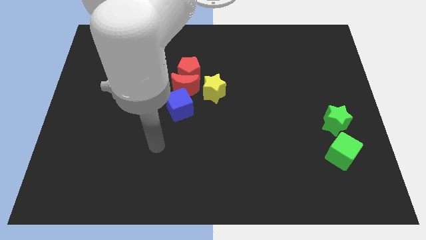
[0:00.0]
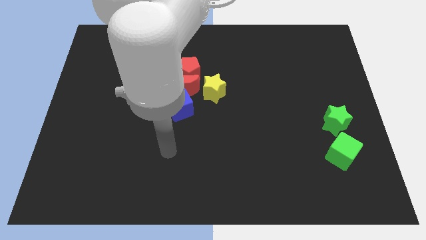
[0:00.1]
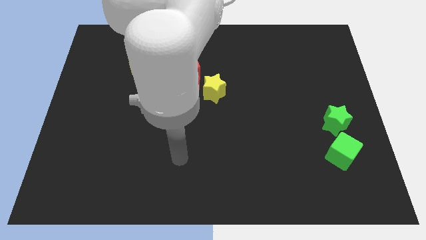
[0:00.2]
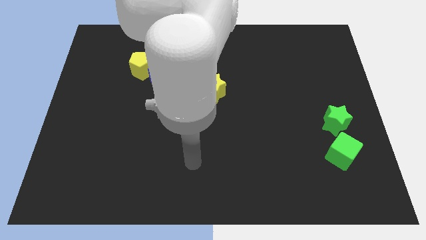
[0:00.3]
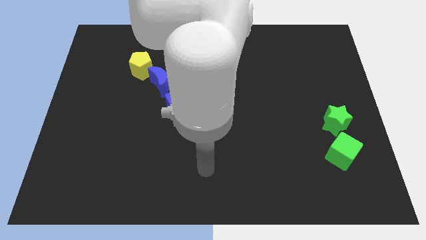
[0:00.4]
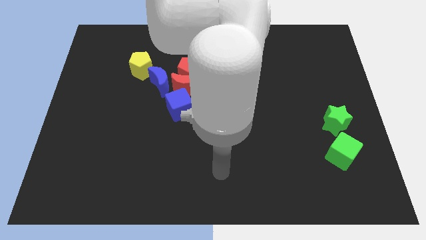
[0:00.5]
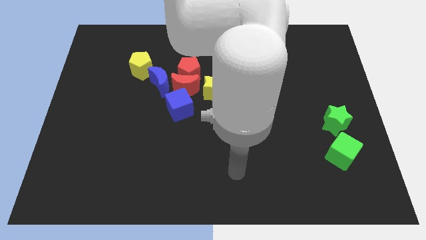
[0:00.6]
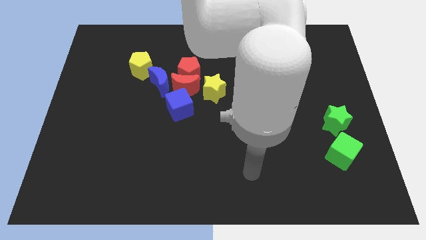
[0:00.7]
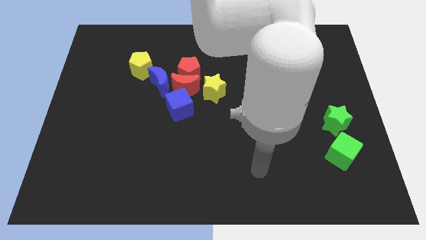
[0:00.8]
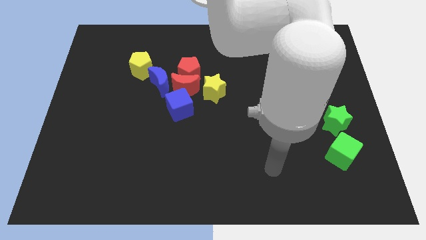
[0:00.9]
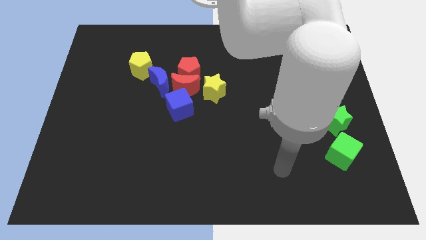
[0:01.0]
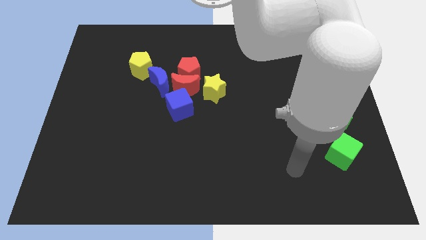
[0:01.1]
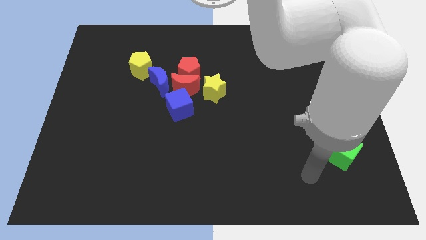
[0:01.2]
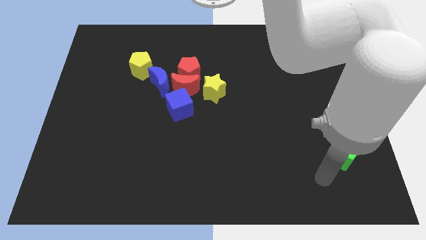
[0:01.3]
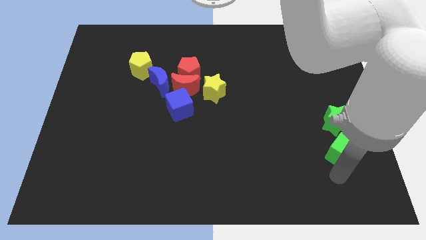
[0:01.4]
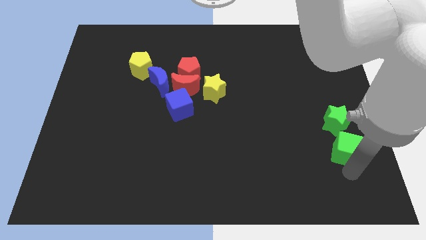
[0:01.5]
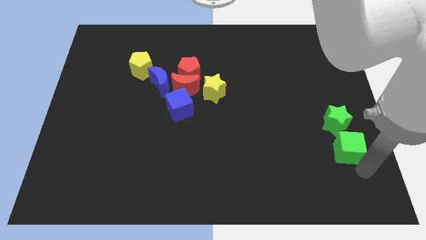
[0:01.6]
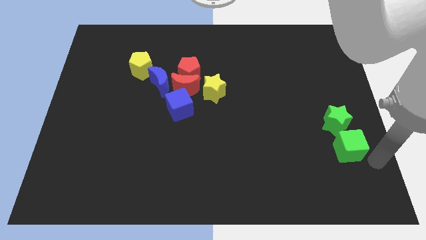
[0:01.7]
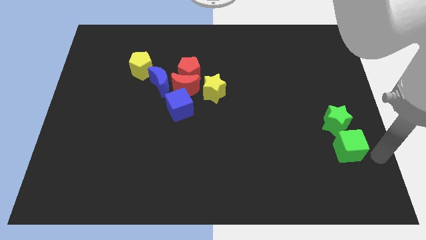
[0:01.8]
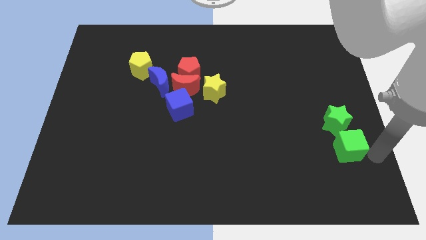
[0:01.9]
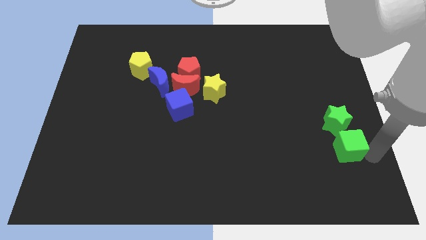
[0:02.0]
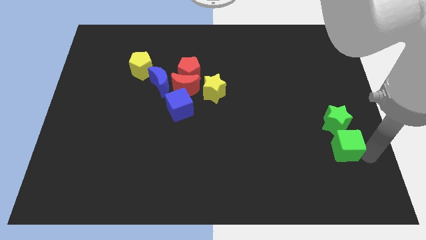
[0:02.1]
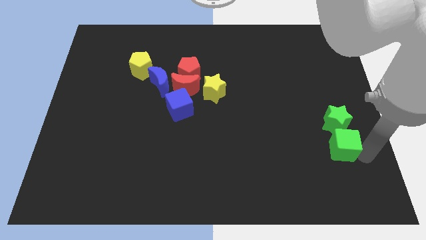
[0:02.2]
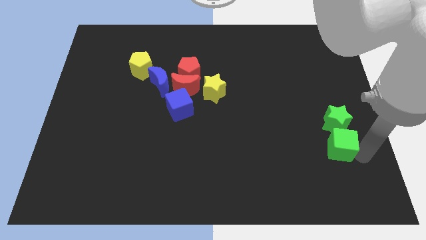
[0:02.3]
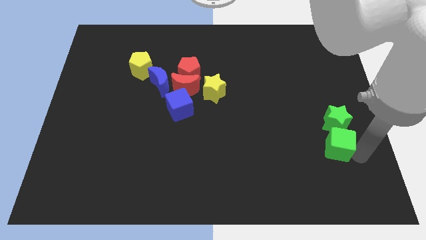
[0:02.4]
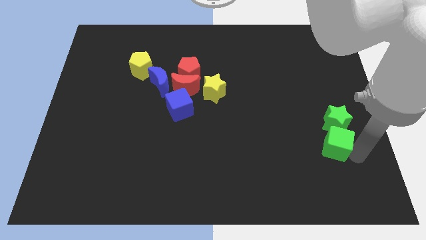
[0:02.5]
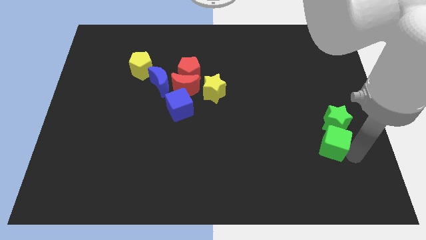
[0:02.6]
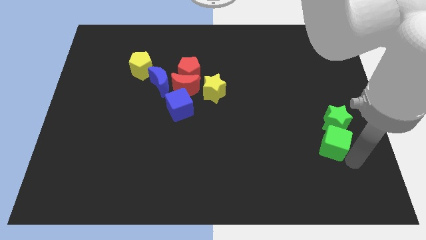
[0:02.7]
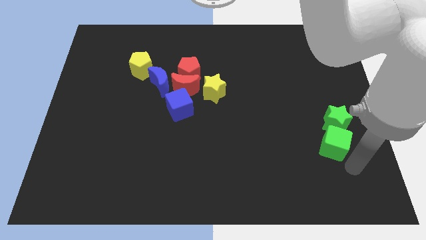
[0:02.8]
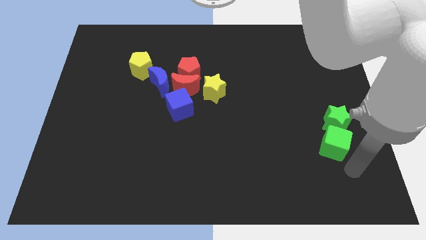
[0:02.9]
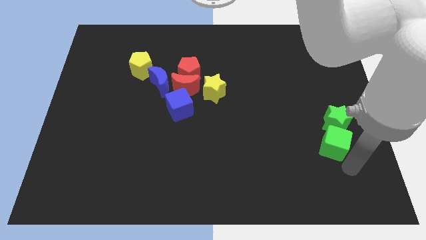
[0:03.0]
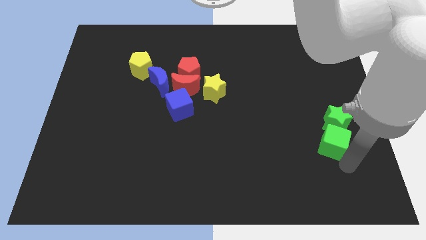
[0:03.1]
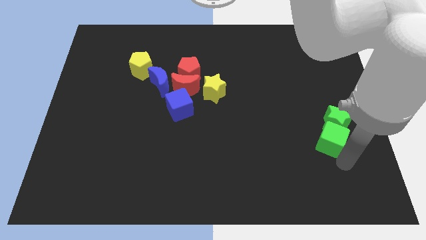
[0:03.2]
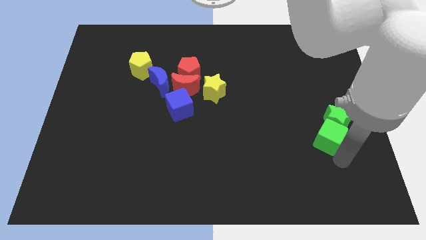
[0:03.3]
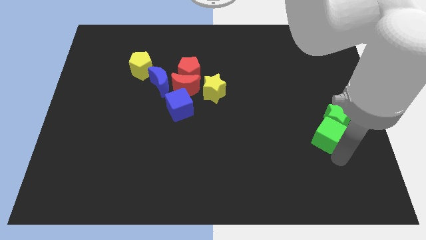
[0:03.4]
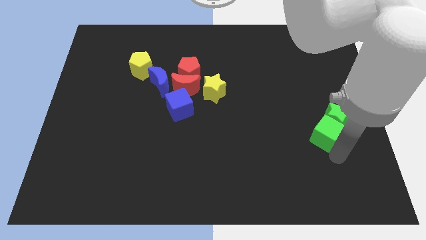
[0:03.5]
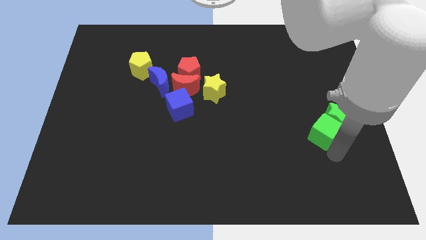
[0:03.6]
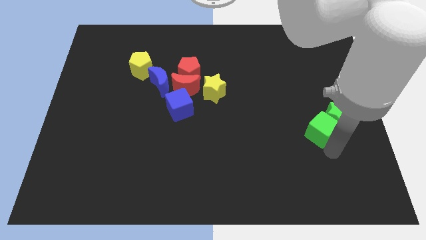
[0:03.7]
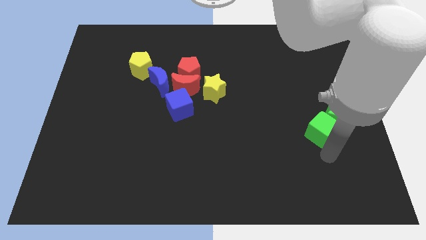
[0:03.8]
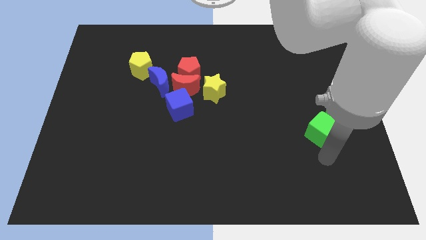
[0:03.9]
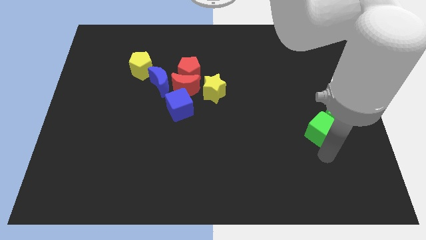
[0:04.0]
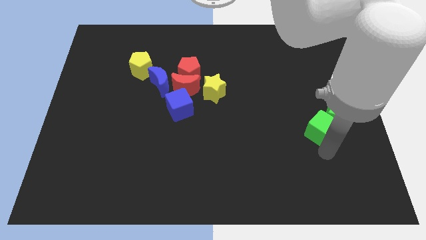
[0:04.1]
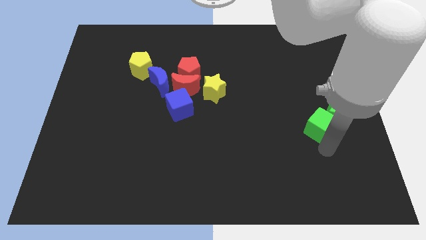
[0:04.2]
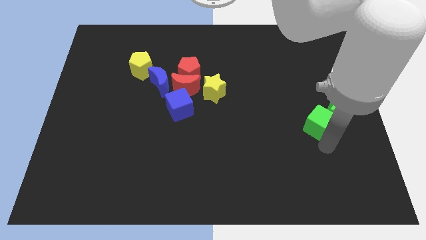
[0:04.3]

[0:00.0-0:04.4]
move the green cube up a little

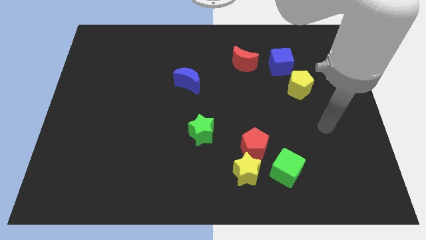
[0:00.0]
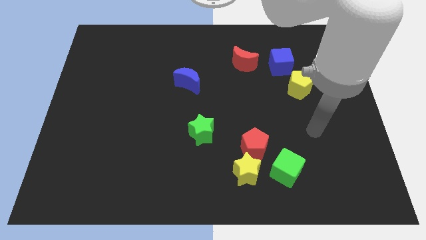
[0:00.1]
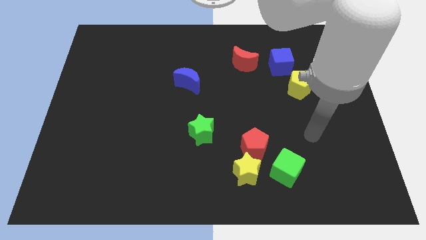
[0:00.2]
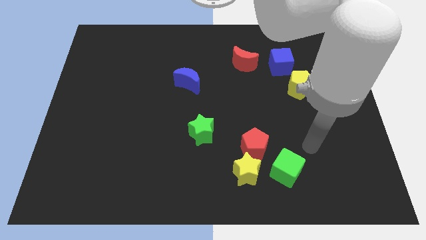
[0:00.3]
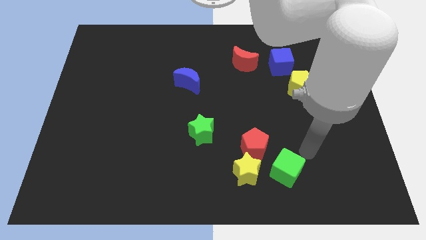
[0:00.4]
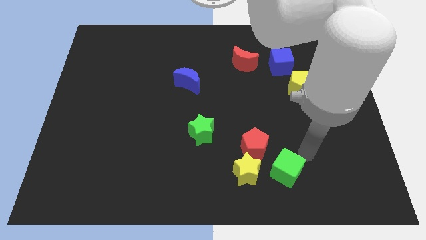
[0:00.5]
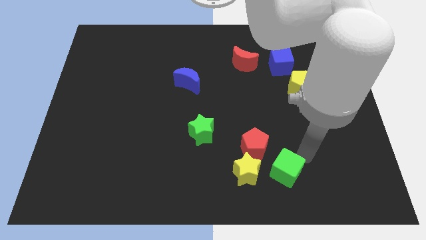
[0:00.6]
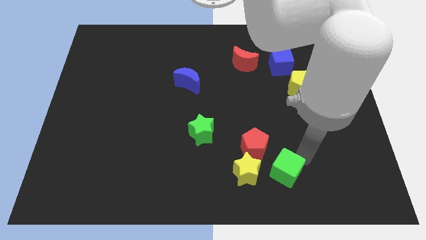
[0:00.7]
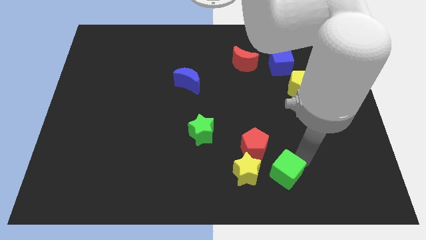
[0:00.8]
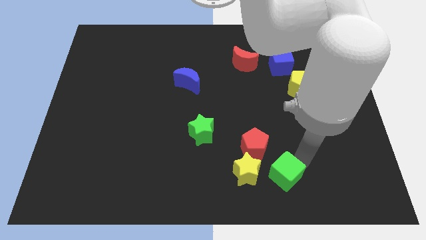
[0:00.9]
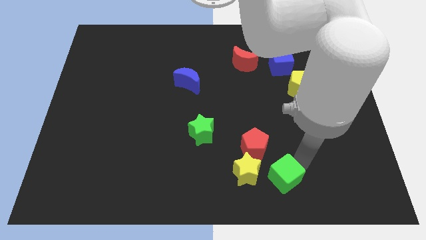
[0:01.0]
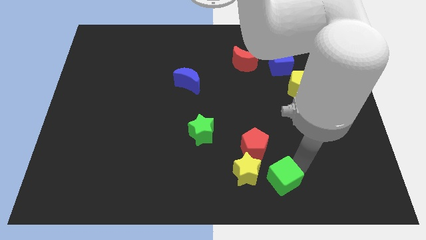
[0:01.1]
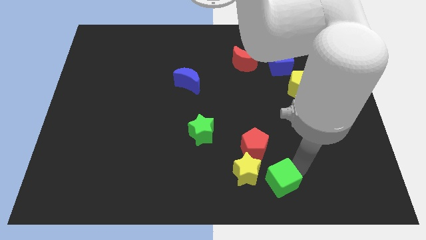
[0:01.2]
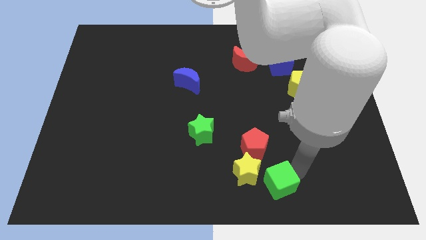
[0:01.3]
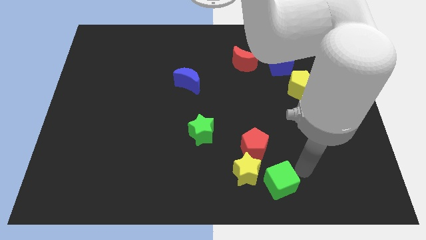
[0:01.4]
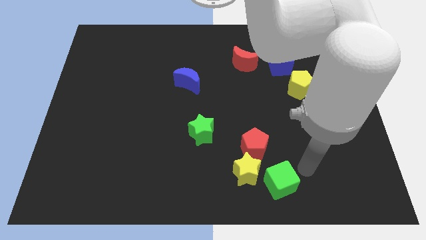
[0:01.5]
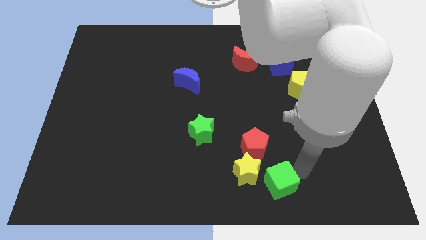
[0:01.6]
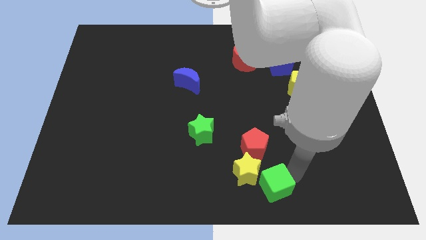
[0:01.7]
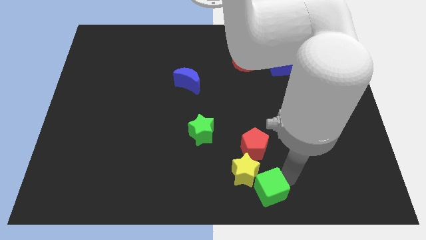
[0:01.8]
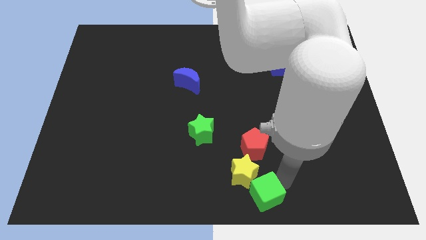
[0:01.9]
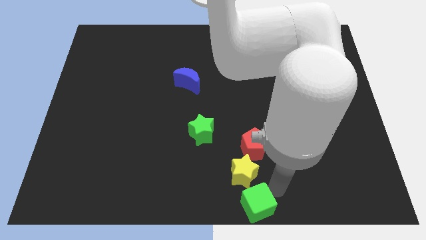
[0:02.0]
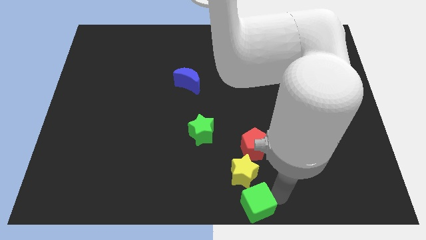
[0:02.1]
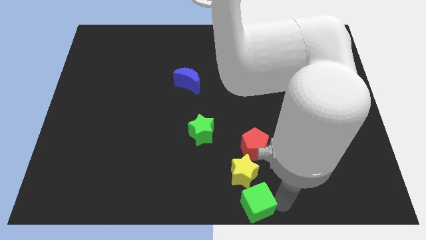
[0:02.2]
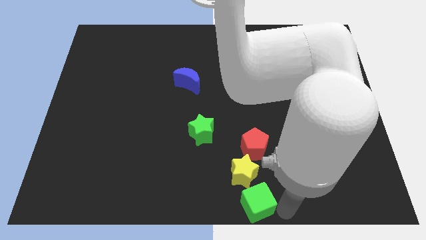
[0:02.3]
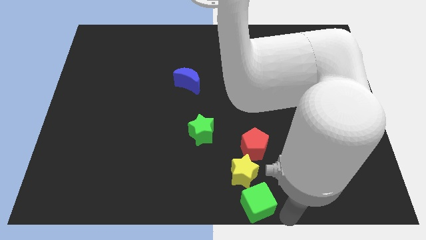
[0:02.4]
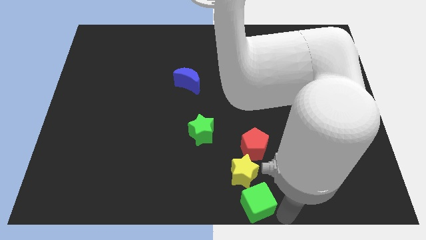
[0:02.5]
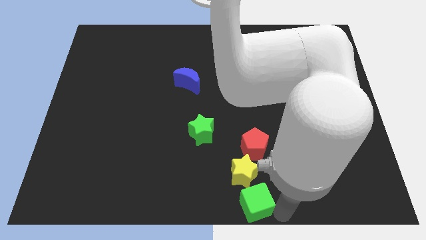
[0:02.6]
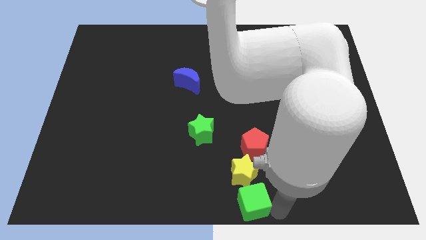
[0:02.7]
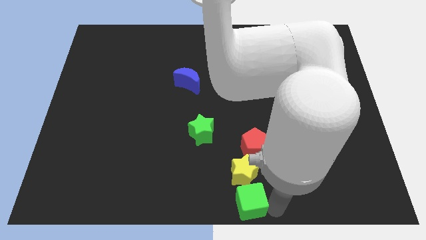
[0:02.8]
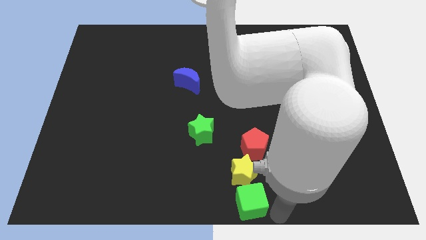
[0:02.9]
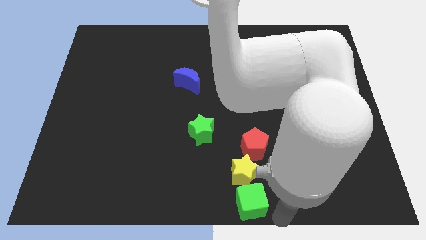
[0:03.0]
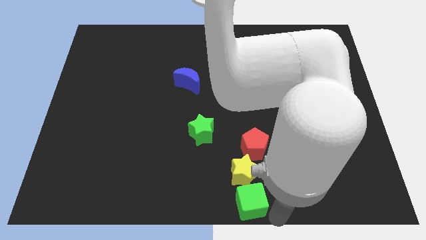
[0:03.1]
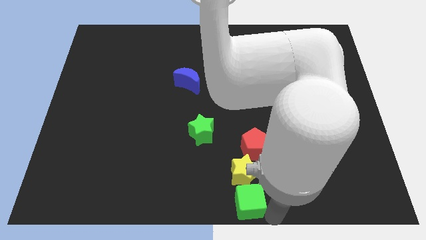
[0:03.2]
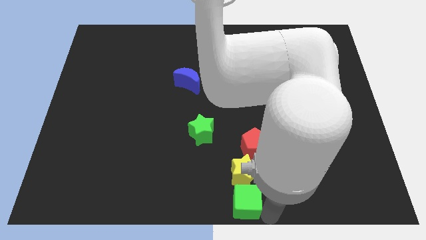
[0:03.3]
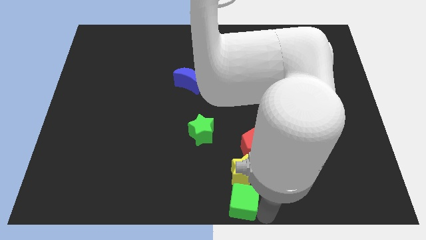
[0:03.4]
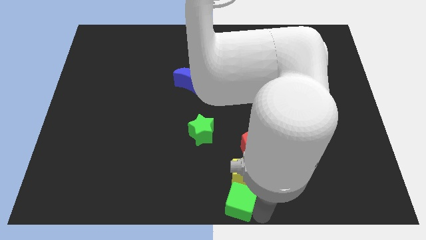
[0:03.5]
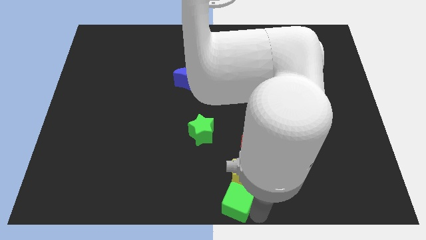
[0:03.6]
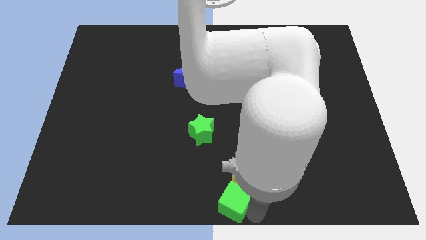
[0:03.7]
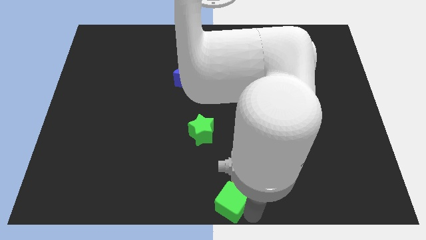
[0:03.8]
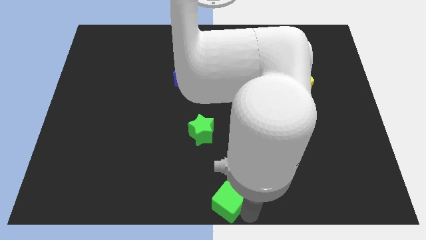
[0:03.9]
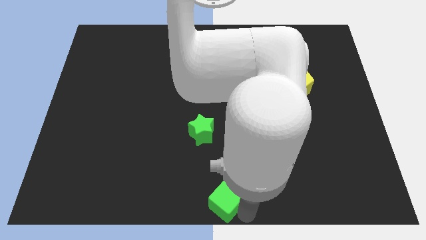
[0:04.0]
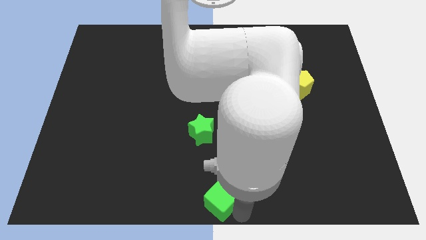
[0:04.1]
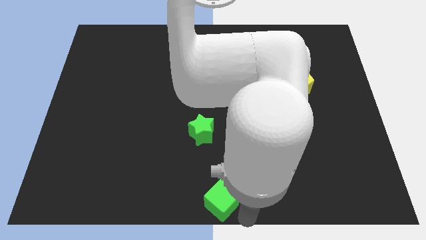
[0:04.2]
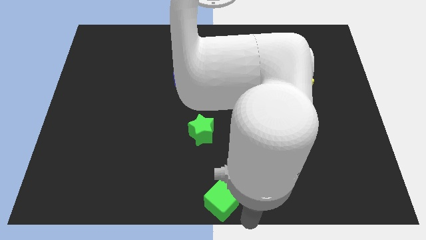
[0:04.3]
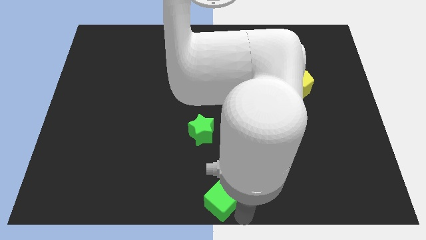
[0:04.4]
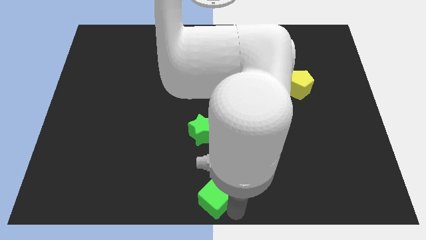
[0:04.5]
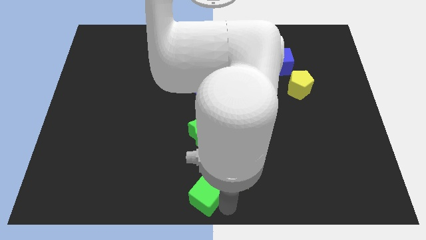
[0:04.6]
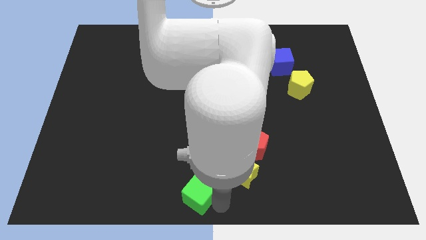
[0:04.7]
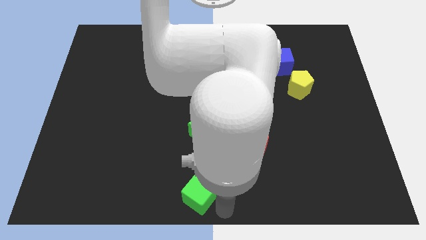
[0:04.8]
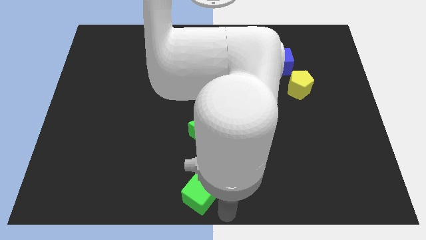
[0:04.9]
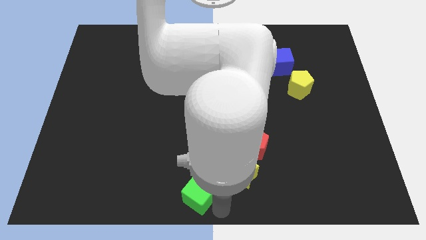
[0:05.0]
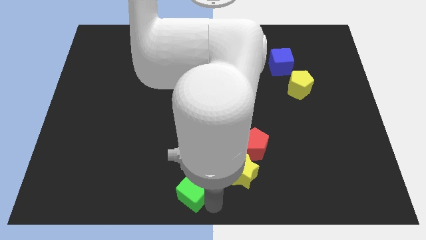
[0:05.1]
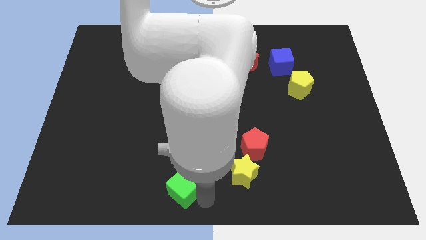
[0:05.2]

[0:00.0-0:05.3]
move the green cube left
